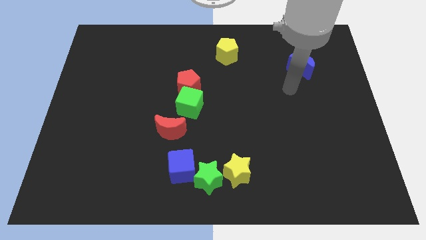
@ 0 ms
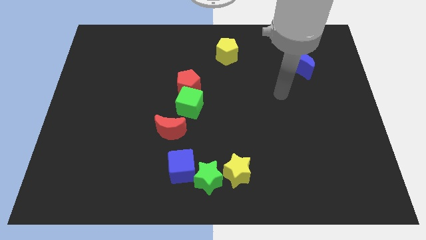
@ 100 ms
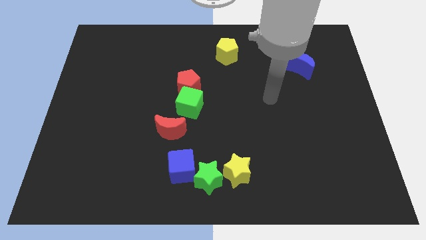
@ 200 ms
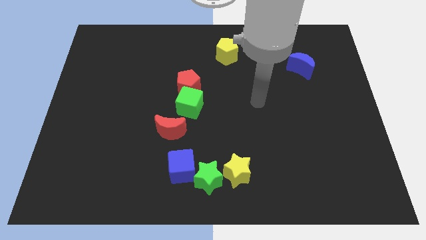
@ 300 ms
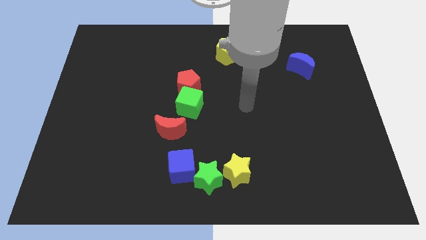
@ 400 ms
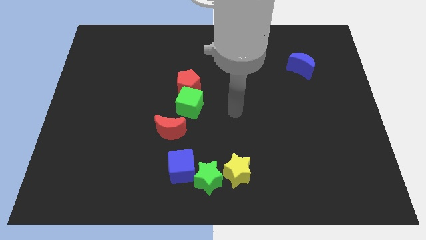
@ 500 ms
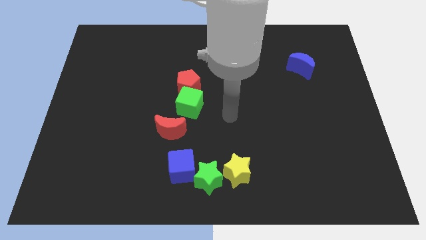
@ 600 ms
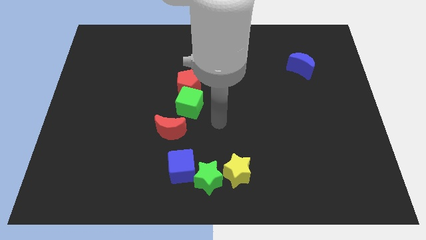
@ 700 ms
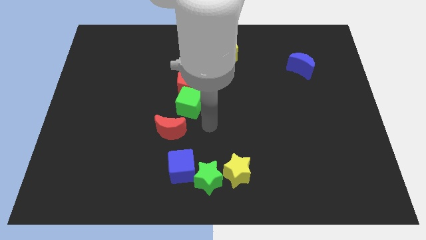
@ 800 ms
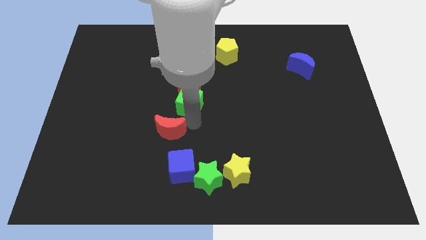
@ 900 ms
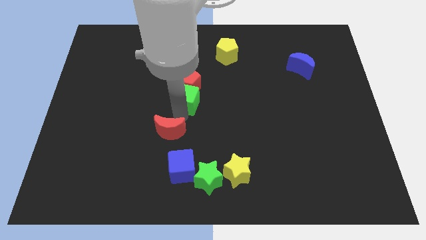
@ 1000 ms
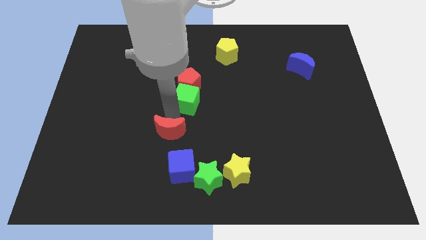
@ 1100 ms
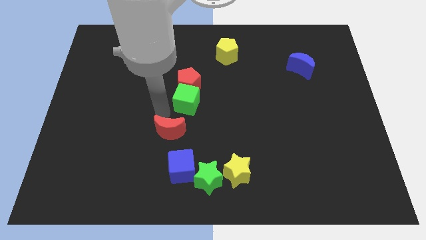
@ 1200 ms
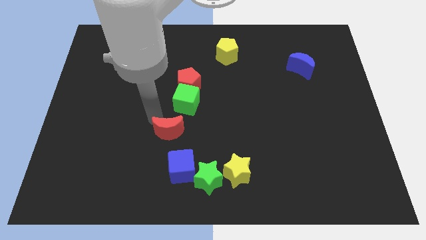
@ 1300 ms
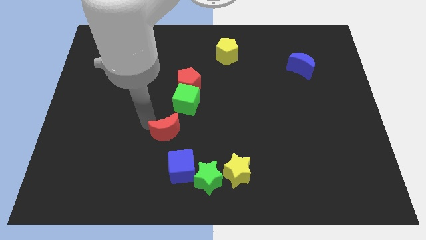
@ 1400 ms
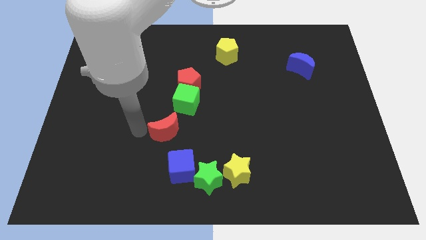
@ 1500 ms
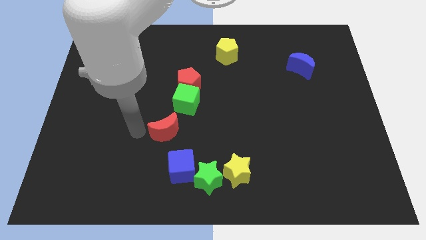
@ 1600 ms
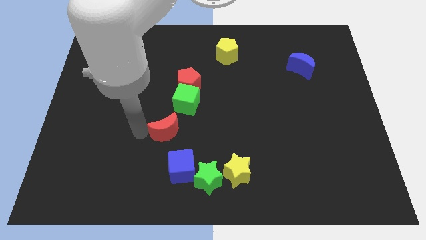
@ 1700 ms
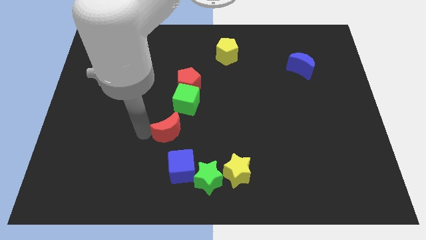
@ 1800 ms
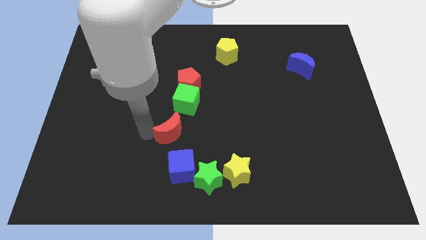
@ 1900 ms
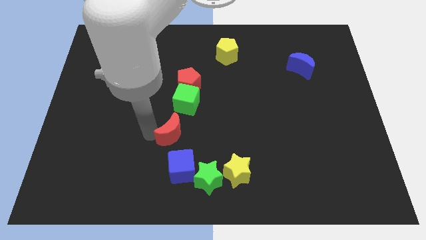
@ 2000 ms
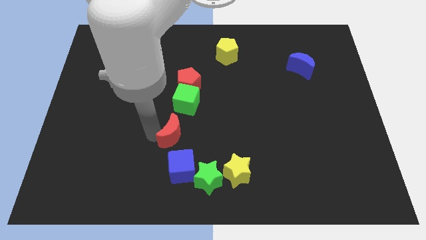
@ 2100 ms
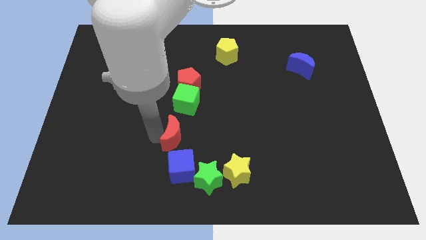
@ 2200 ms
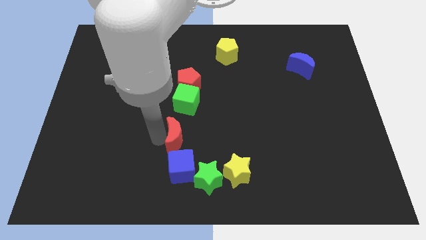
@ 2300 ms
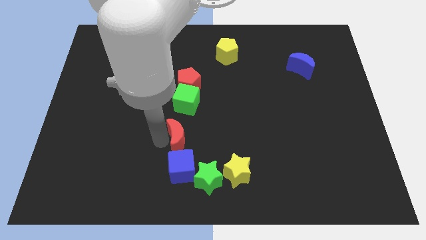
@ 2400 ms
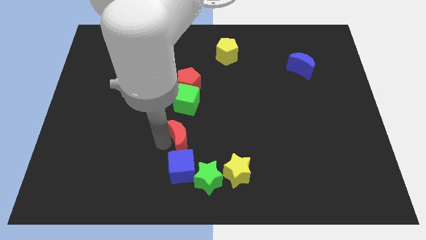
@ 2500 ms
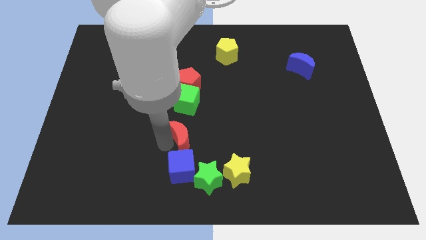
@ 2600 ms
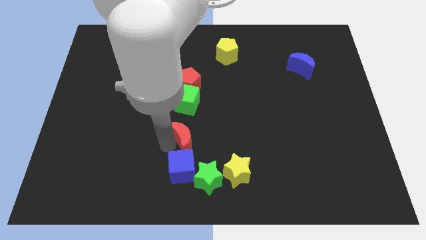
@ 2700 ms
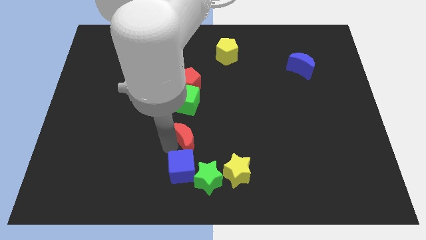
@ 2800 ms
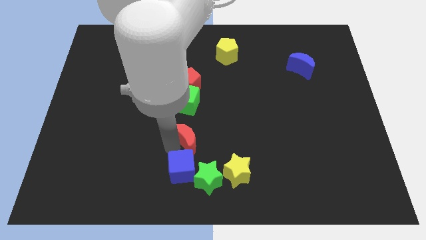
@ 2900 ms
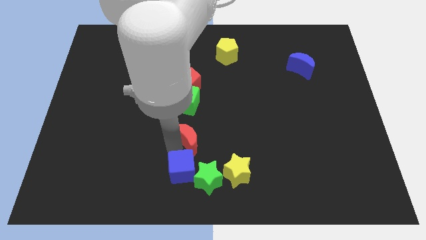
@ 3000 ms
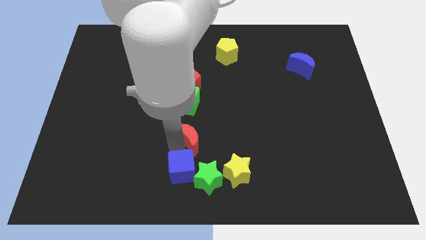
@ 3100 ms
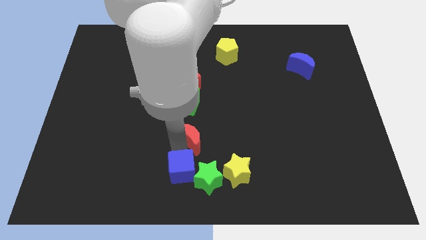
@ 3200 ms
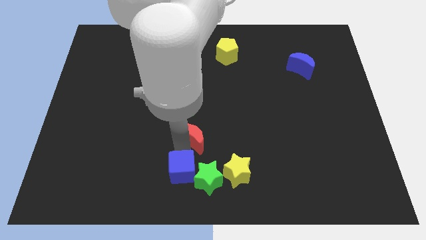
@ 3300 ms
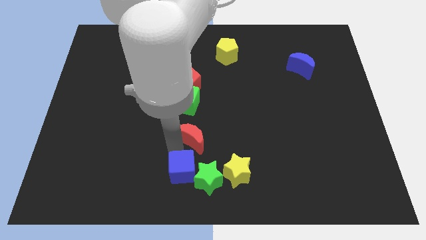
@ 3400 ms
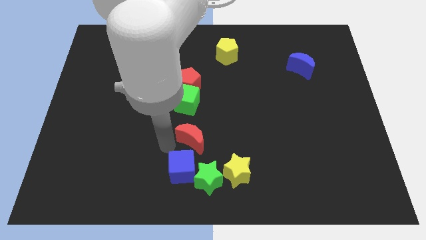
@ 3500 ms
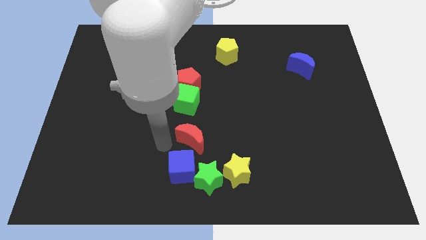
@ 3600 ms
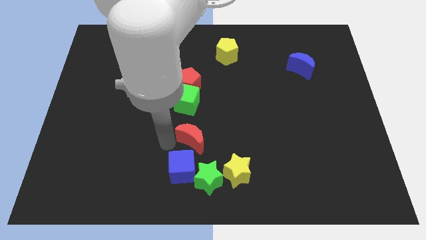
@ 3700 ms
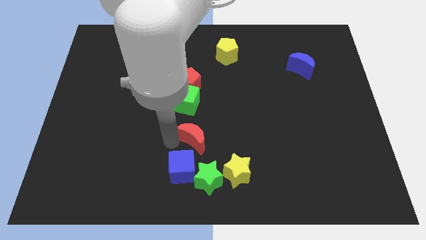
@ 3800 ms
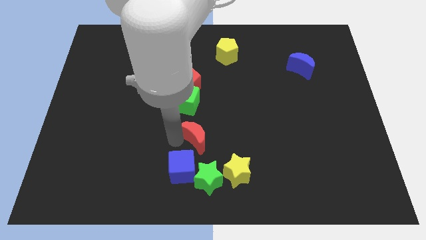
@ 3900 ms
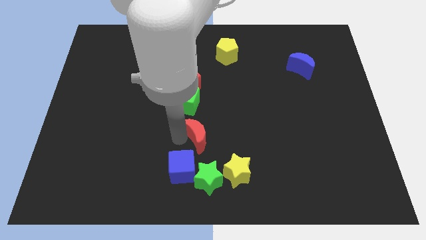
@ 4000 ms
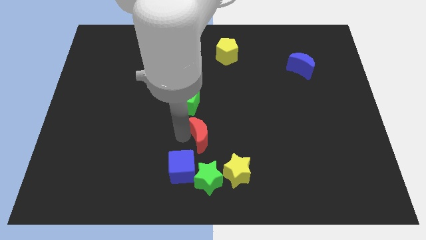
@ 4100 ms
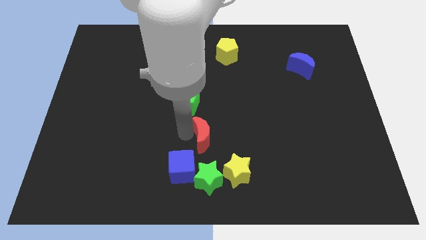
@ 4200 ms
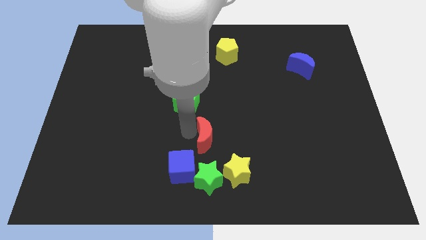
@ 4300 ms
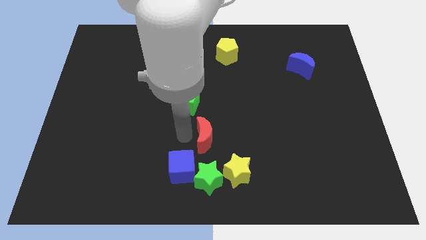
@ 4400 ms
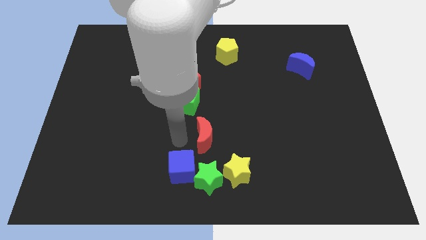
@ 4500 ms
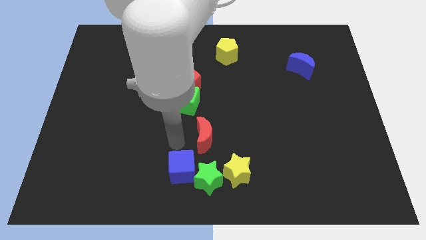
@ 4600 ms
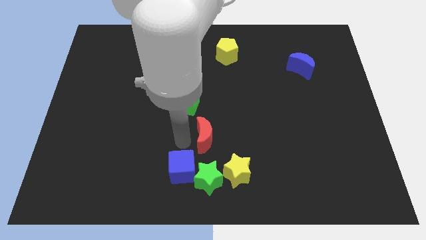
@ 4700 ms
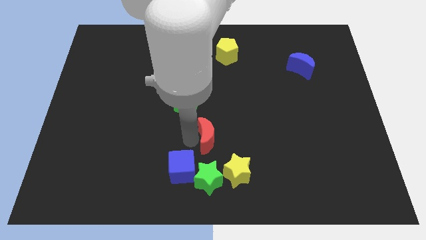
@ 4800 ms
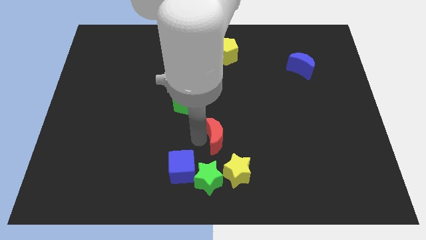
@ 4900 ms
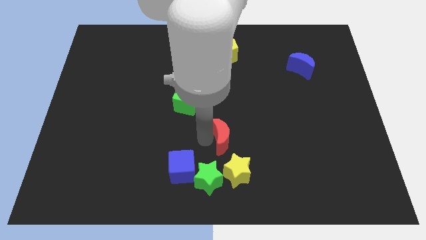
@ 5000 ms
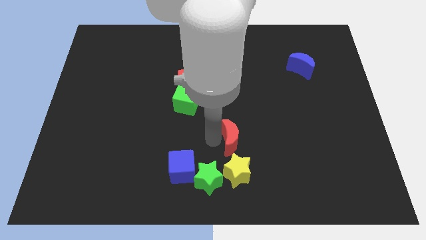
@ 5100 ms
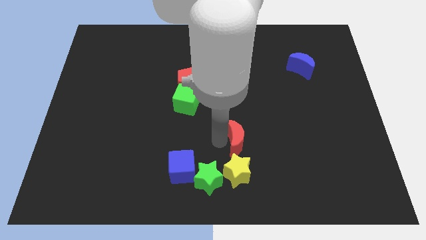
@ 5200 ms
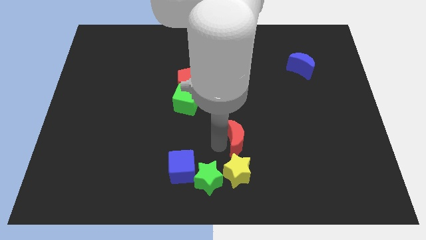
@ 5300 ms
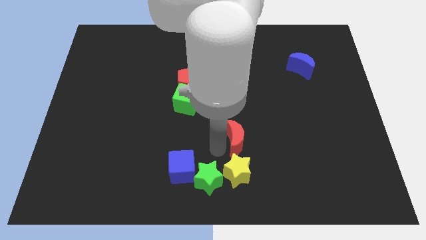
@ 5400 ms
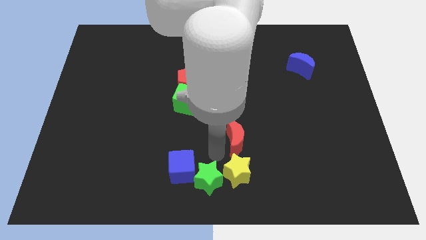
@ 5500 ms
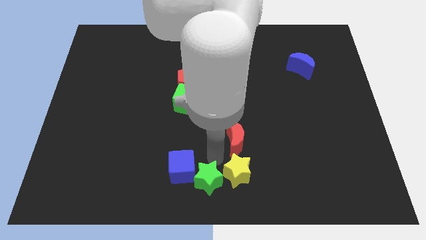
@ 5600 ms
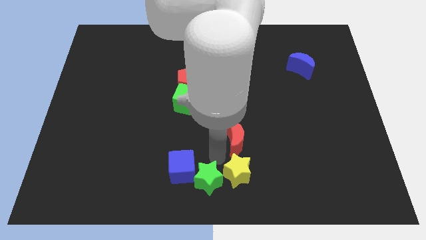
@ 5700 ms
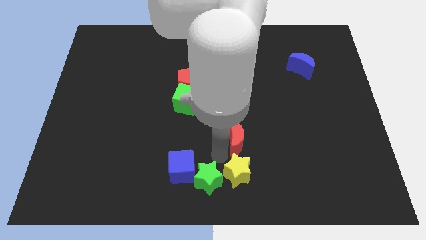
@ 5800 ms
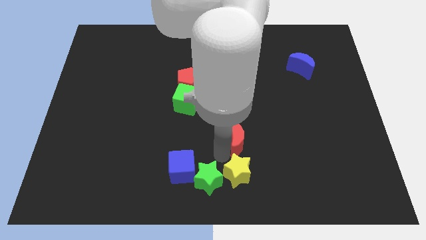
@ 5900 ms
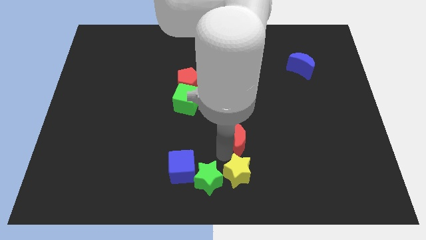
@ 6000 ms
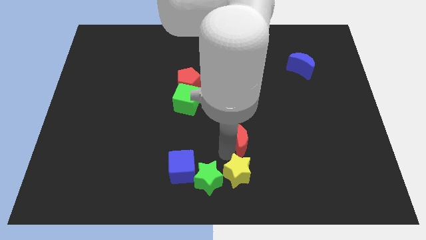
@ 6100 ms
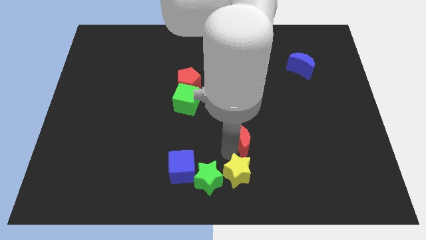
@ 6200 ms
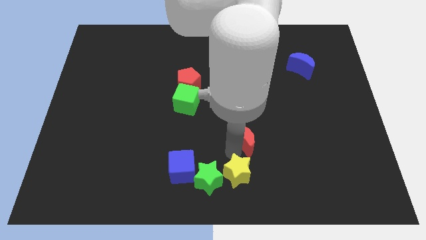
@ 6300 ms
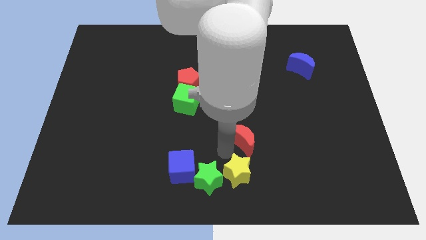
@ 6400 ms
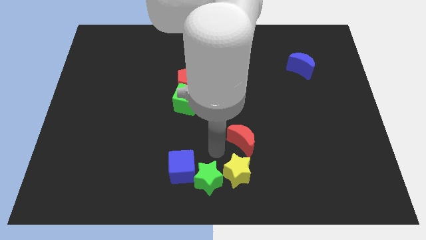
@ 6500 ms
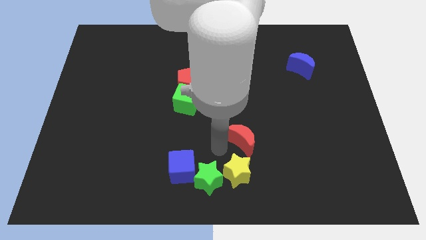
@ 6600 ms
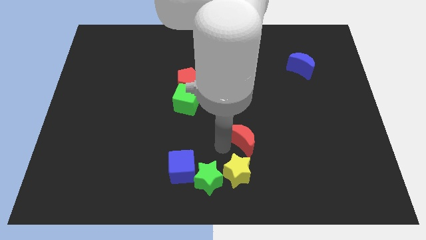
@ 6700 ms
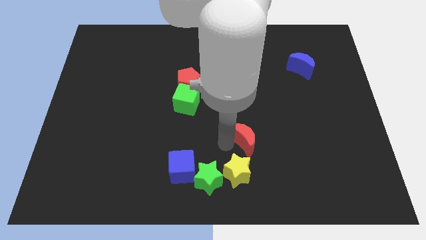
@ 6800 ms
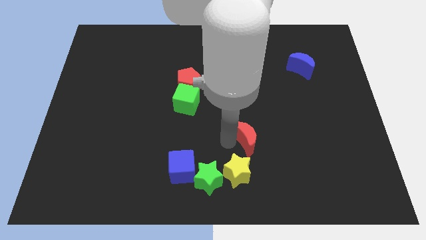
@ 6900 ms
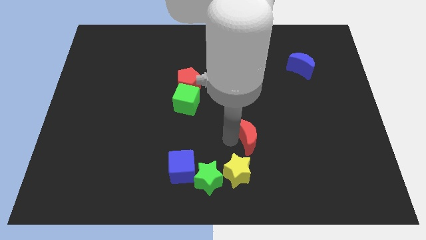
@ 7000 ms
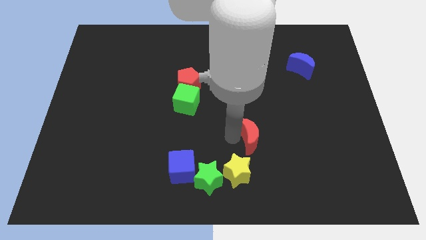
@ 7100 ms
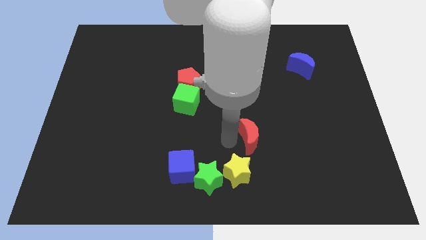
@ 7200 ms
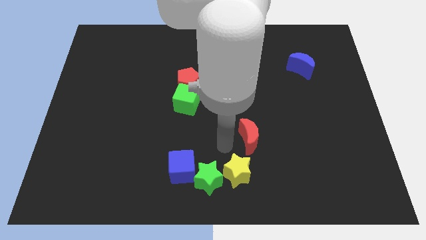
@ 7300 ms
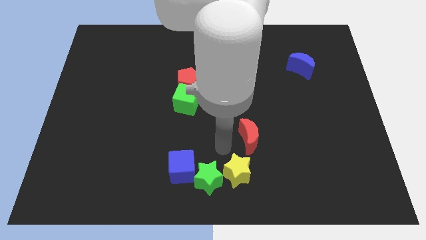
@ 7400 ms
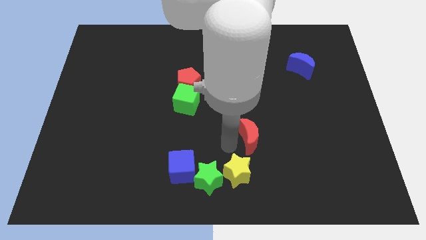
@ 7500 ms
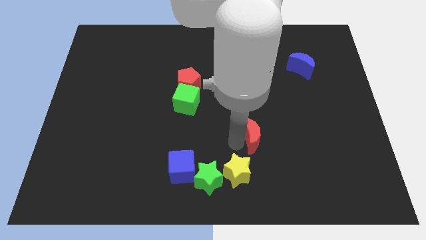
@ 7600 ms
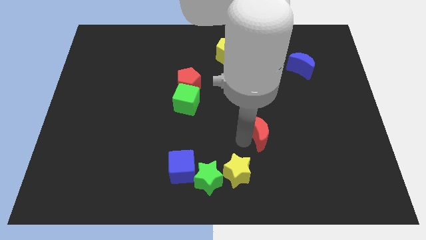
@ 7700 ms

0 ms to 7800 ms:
slide the red moon to the right

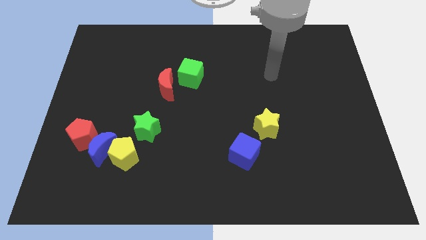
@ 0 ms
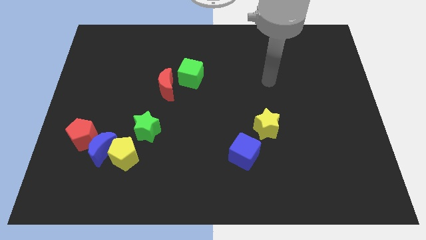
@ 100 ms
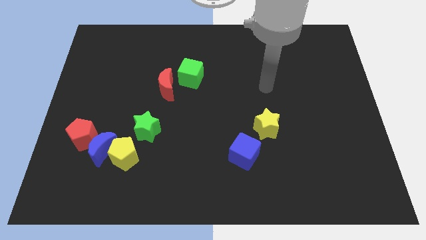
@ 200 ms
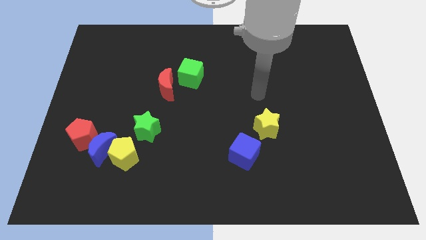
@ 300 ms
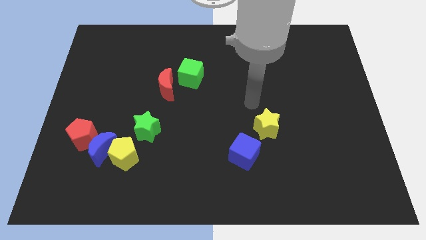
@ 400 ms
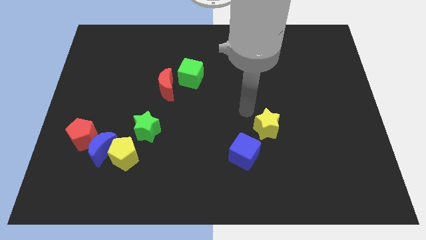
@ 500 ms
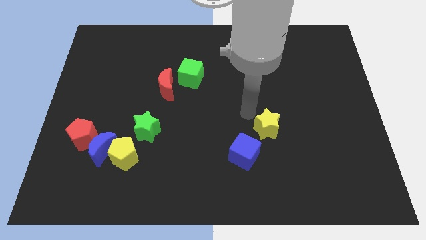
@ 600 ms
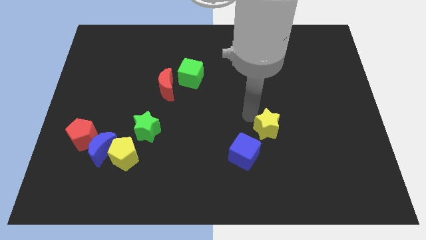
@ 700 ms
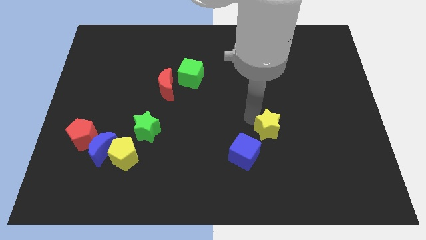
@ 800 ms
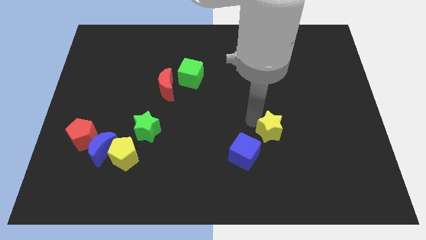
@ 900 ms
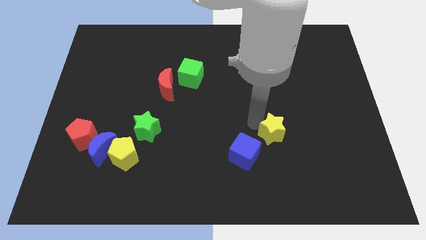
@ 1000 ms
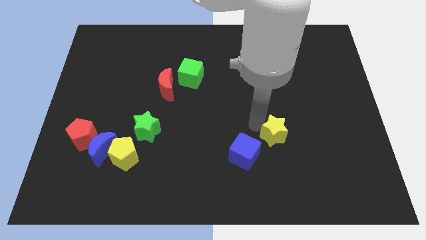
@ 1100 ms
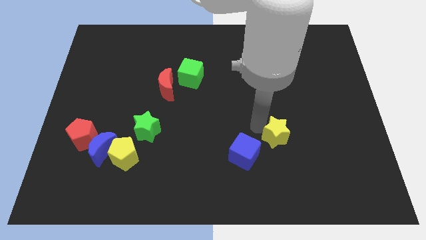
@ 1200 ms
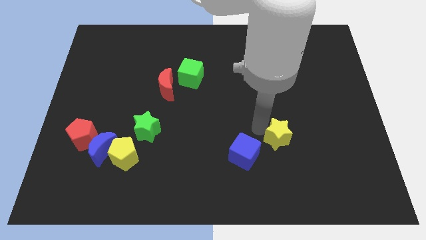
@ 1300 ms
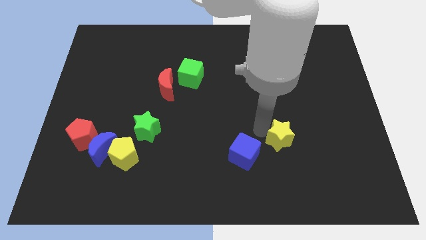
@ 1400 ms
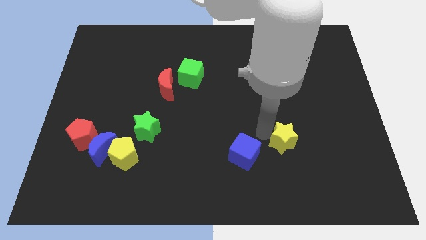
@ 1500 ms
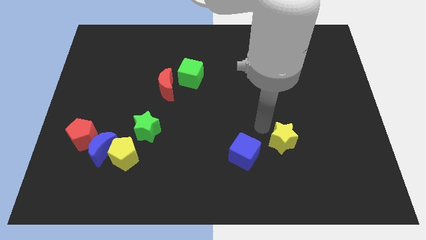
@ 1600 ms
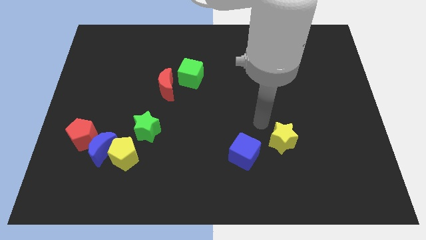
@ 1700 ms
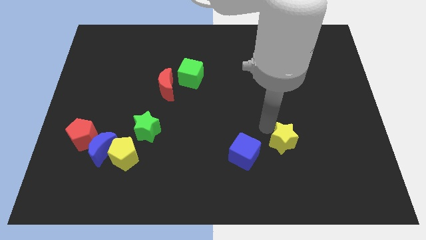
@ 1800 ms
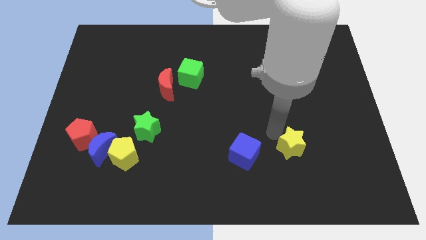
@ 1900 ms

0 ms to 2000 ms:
slide the yellow star a bit downwards and then right
